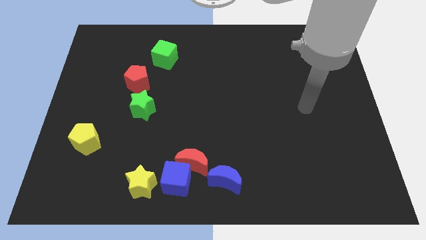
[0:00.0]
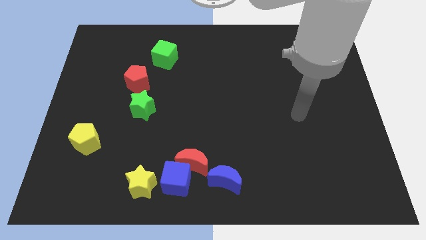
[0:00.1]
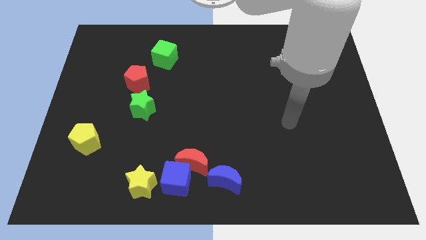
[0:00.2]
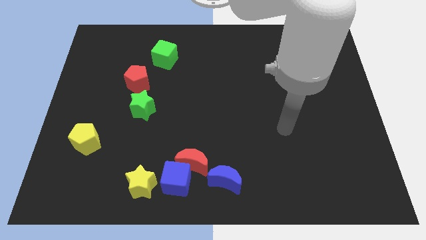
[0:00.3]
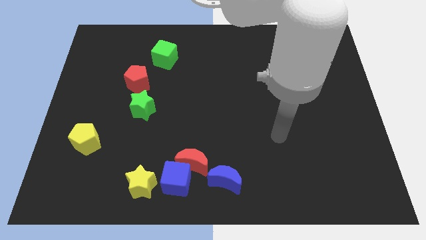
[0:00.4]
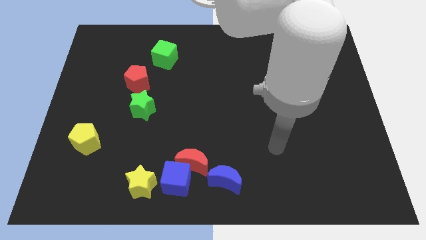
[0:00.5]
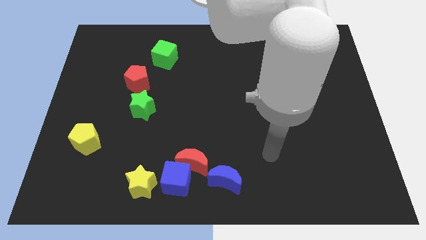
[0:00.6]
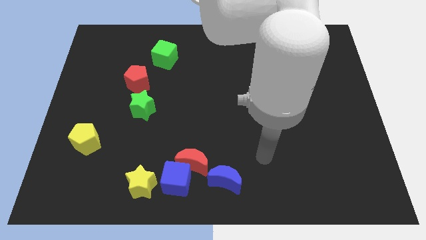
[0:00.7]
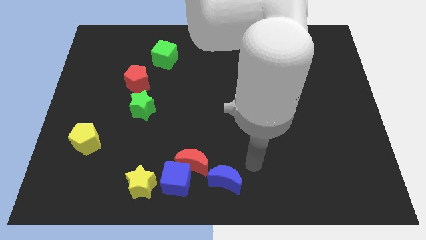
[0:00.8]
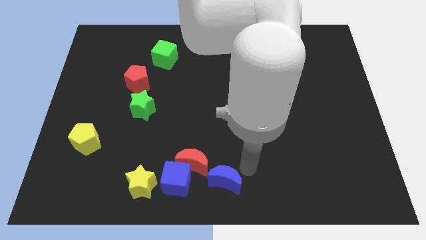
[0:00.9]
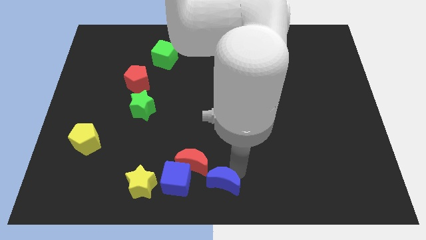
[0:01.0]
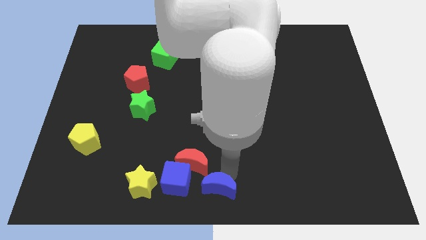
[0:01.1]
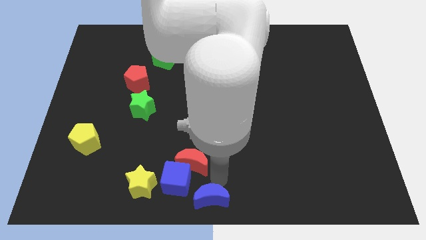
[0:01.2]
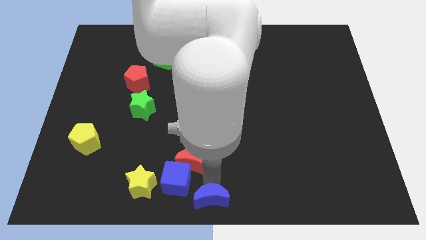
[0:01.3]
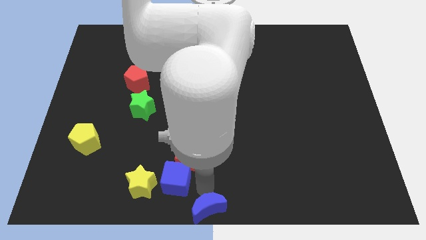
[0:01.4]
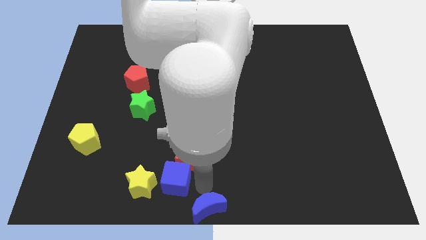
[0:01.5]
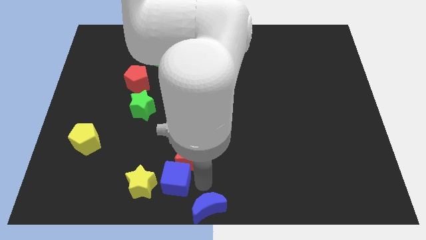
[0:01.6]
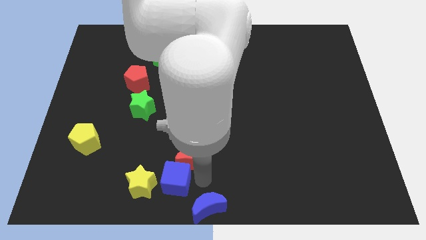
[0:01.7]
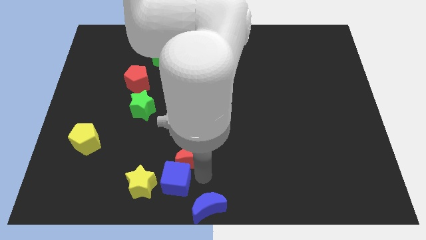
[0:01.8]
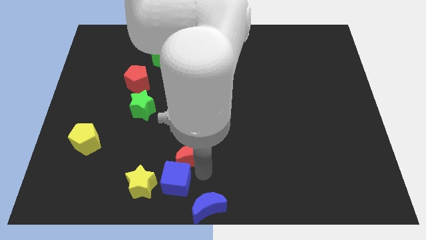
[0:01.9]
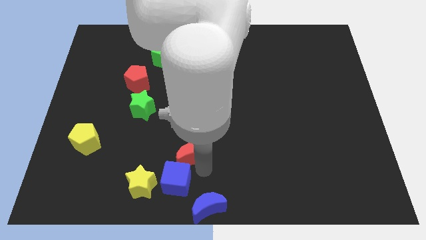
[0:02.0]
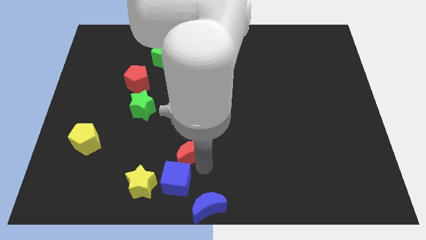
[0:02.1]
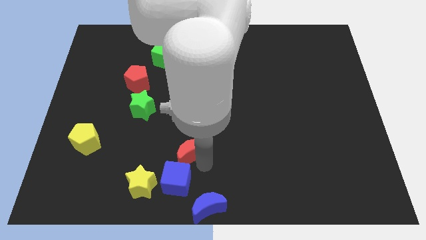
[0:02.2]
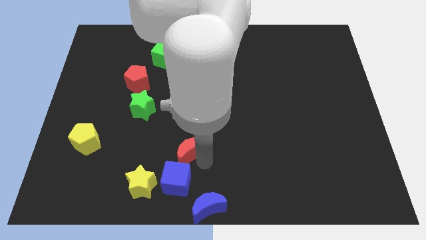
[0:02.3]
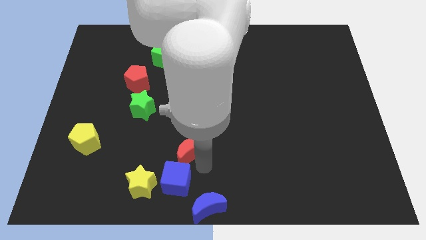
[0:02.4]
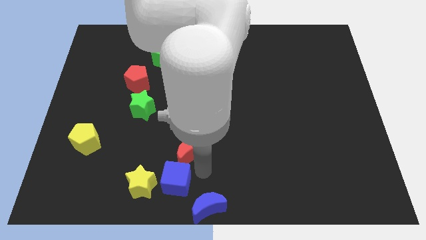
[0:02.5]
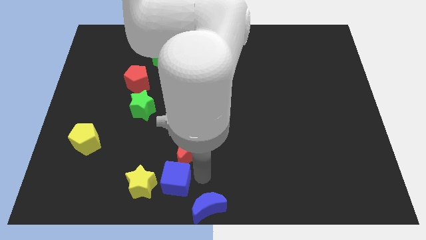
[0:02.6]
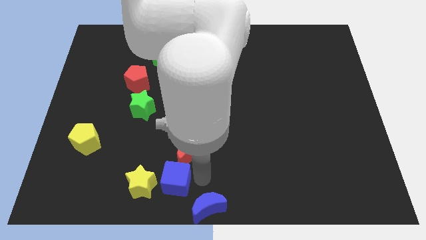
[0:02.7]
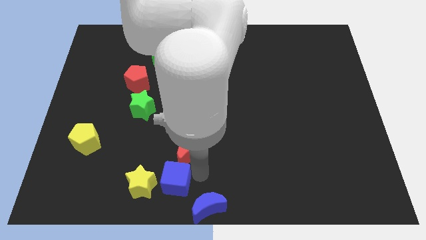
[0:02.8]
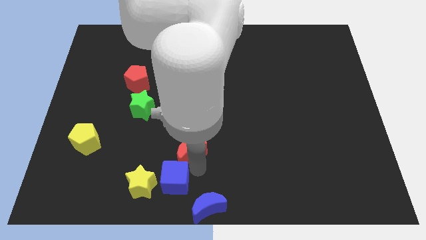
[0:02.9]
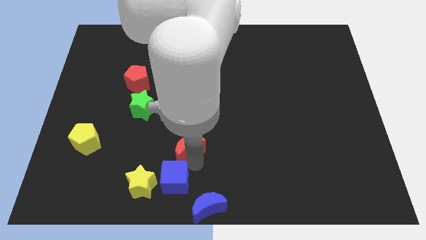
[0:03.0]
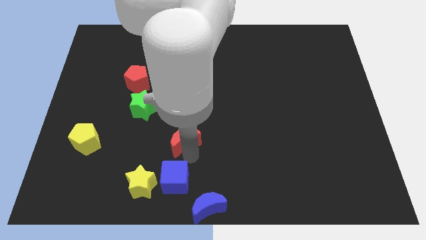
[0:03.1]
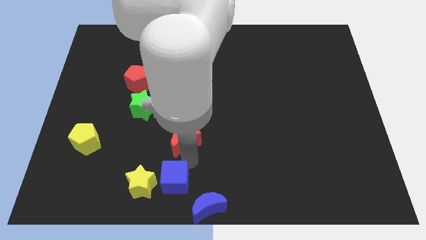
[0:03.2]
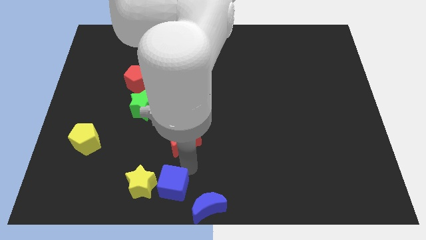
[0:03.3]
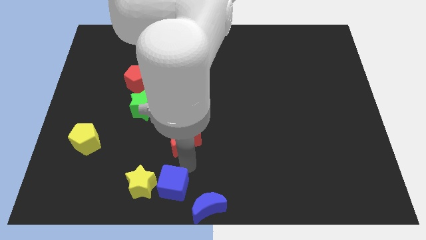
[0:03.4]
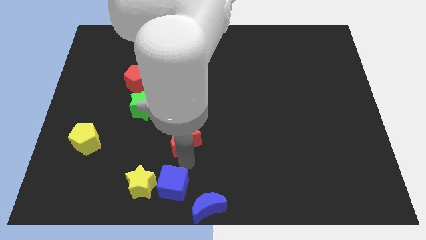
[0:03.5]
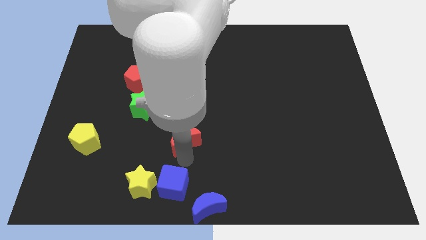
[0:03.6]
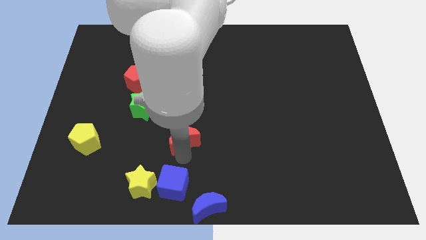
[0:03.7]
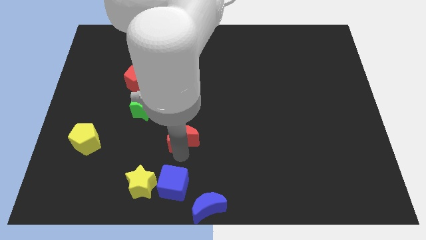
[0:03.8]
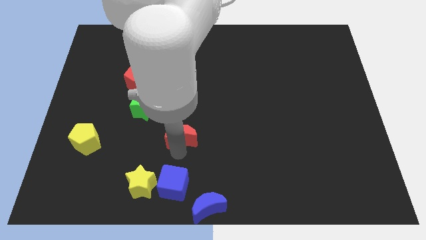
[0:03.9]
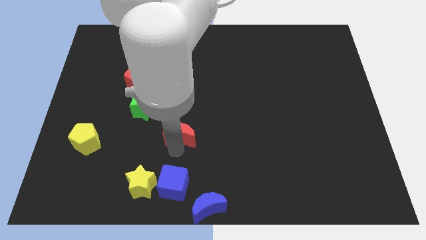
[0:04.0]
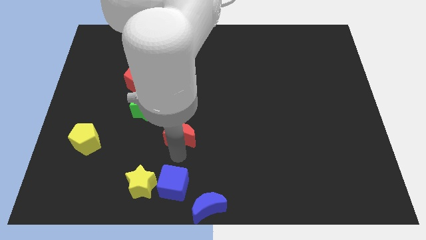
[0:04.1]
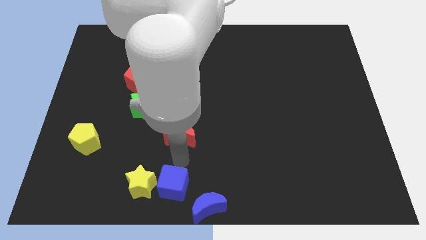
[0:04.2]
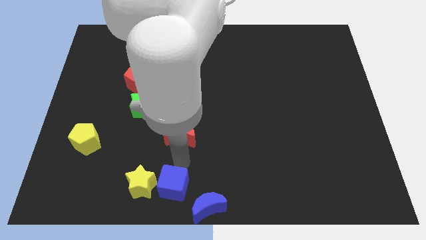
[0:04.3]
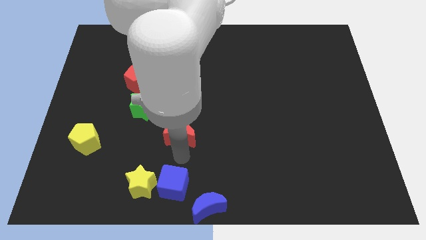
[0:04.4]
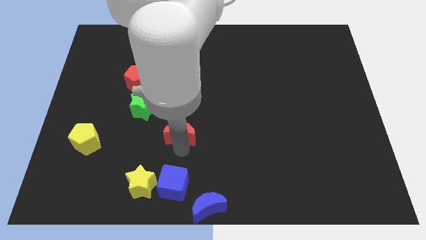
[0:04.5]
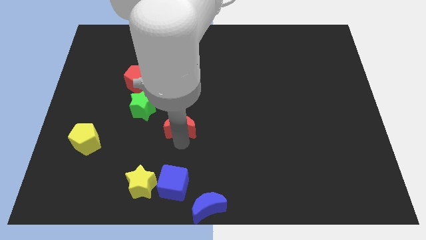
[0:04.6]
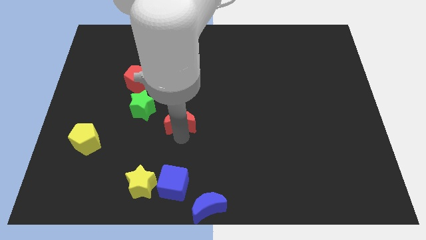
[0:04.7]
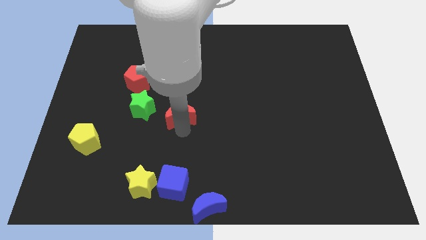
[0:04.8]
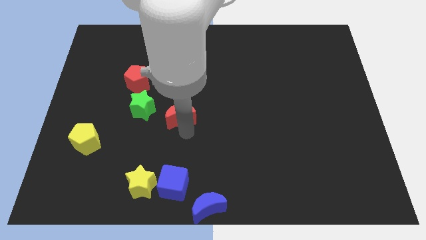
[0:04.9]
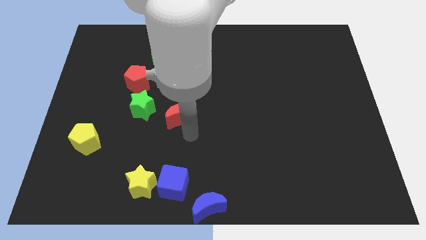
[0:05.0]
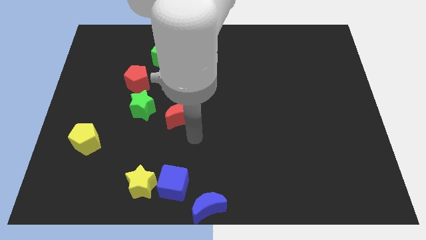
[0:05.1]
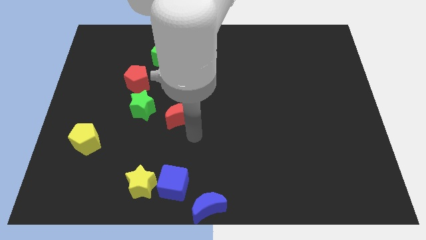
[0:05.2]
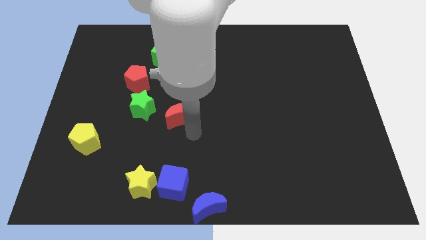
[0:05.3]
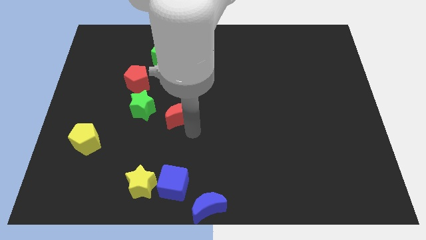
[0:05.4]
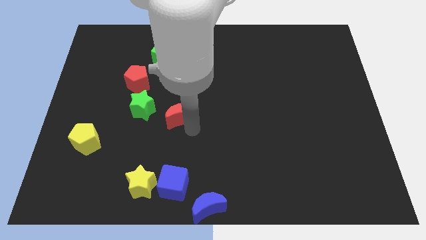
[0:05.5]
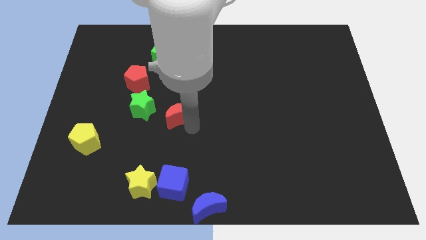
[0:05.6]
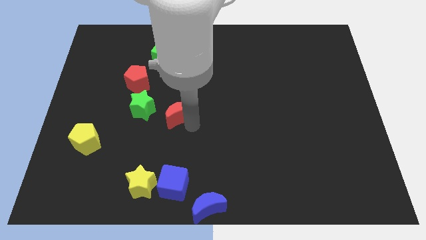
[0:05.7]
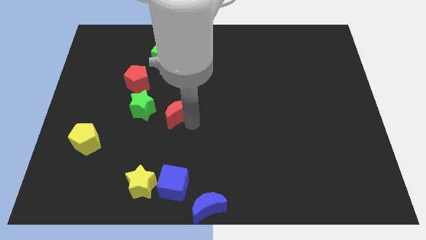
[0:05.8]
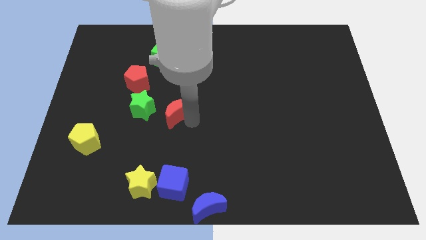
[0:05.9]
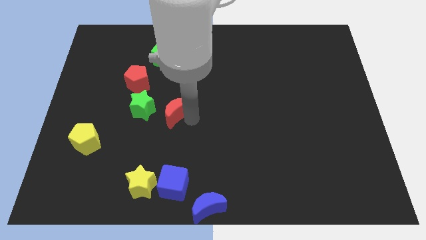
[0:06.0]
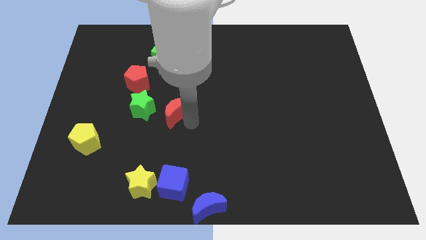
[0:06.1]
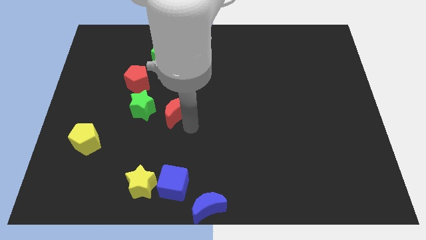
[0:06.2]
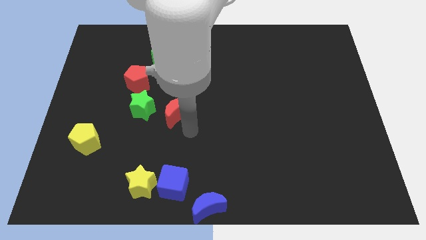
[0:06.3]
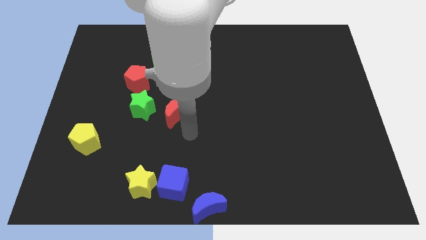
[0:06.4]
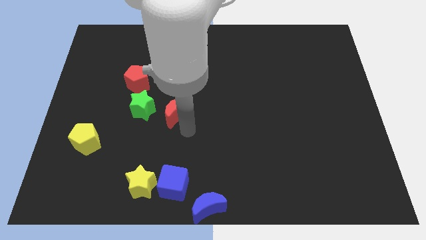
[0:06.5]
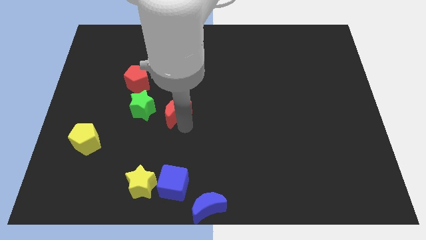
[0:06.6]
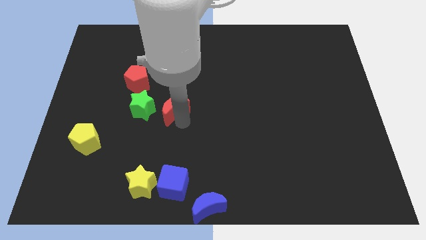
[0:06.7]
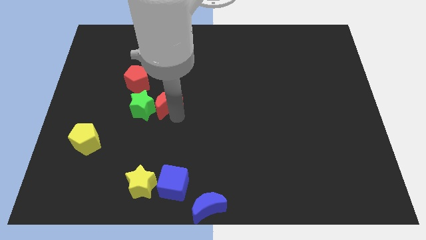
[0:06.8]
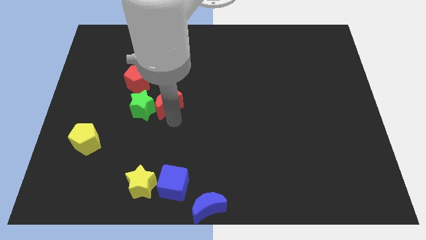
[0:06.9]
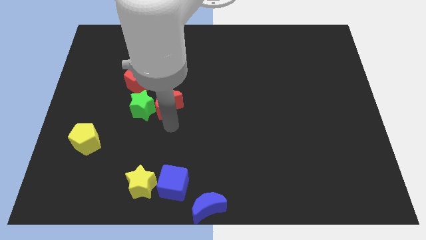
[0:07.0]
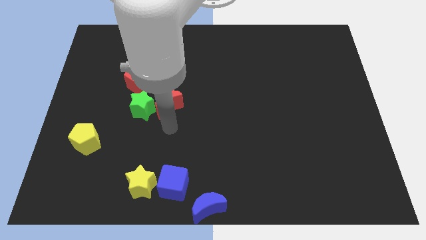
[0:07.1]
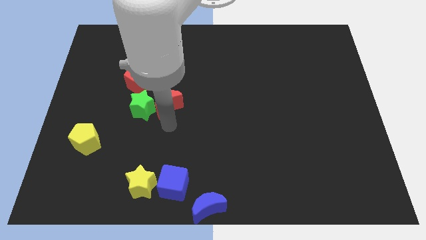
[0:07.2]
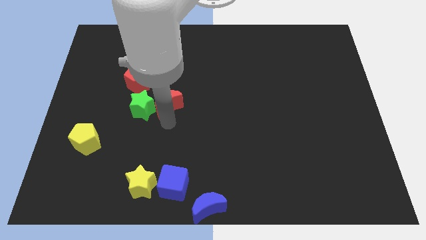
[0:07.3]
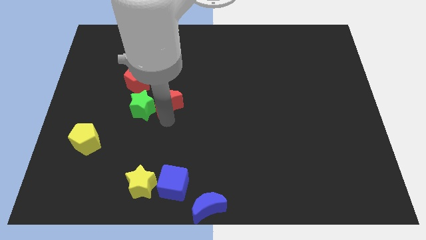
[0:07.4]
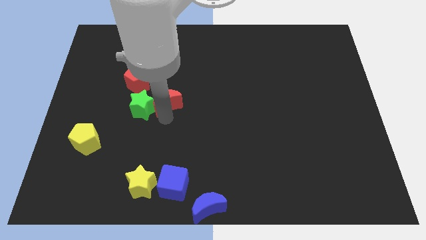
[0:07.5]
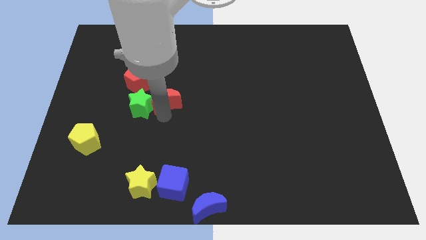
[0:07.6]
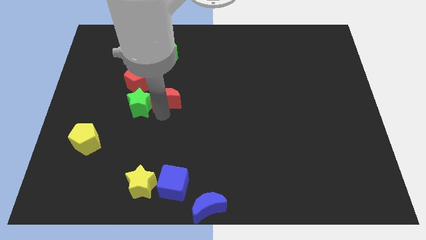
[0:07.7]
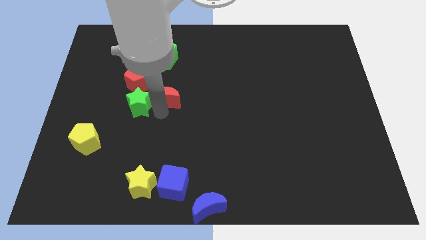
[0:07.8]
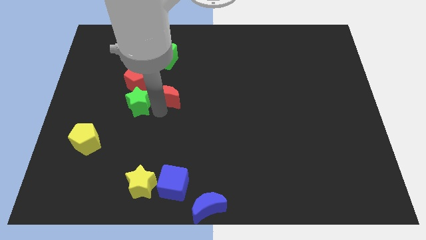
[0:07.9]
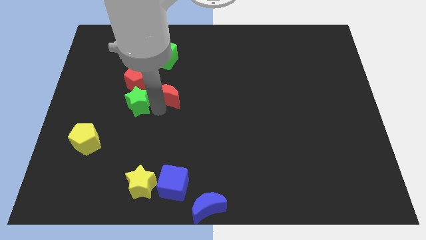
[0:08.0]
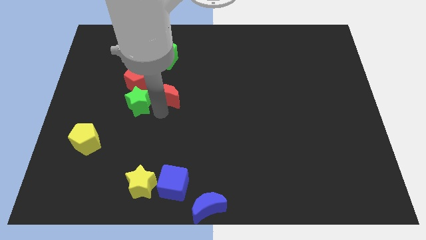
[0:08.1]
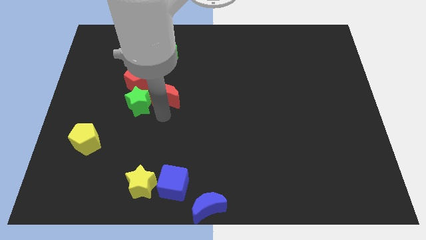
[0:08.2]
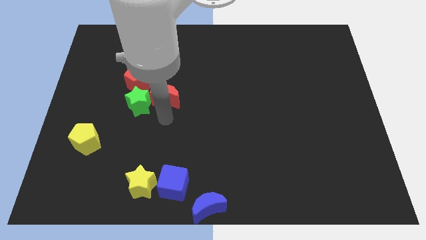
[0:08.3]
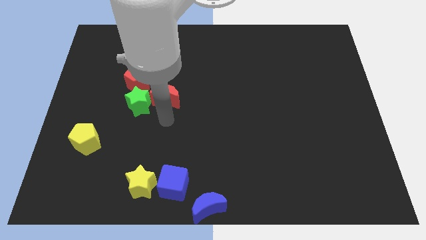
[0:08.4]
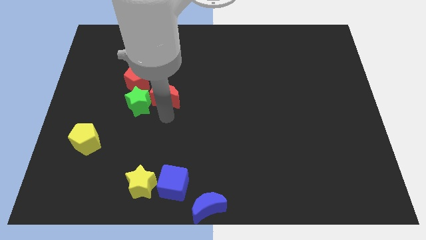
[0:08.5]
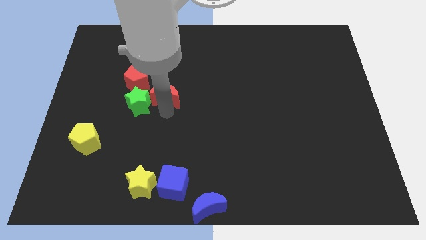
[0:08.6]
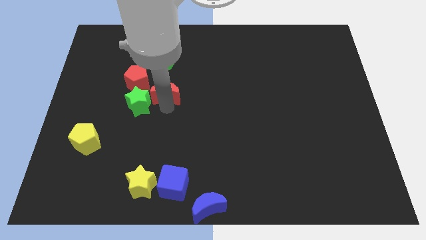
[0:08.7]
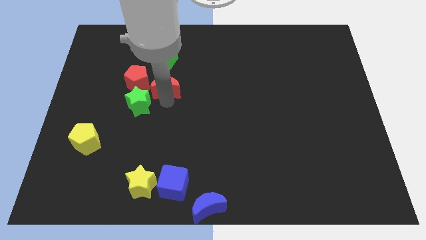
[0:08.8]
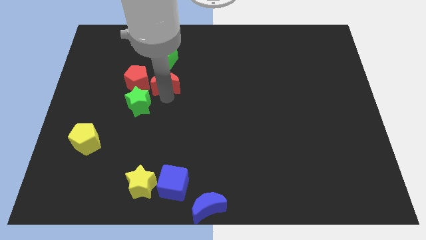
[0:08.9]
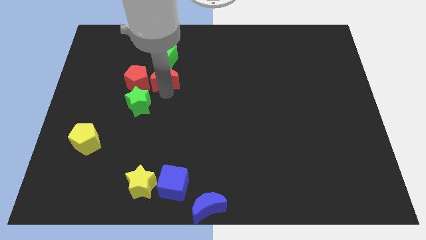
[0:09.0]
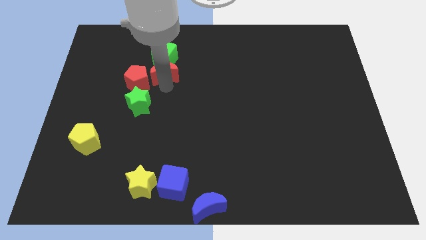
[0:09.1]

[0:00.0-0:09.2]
push the red moon towards the green cube
